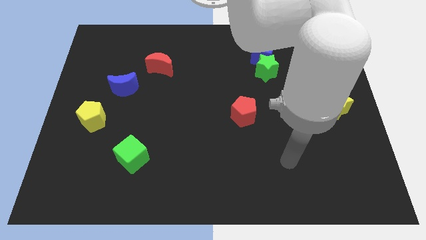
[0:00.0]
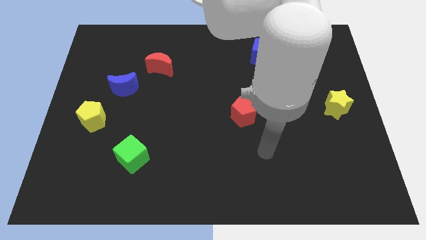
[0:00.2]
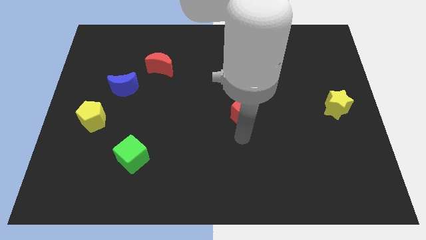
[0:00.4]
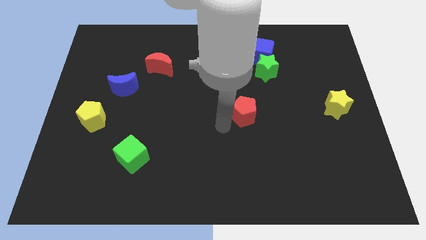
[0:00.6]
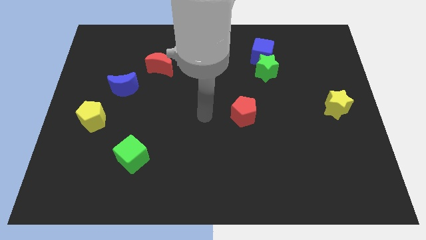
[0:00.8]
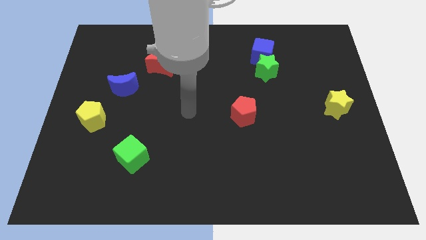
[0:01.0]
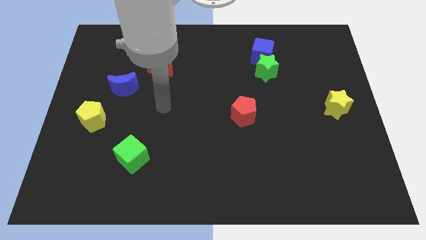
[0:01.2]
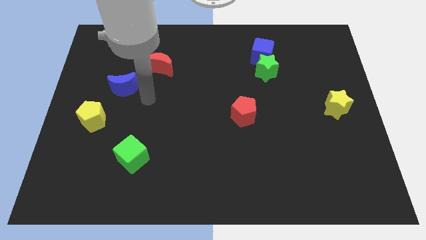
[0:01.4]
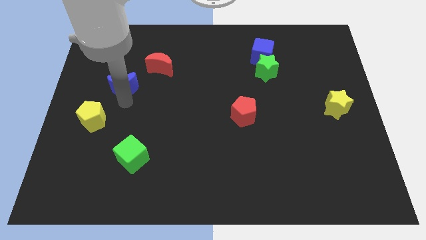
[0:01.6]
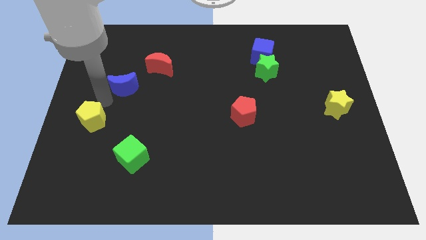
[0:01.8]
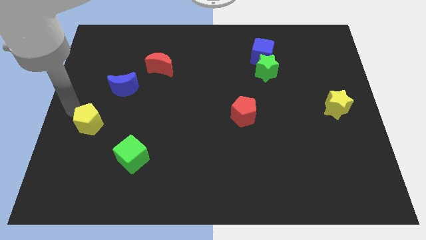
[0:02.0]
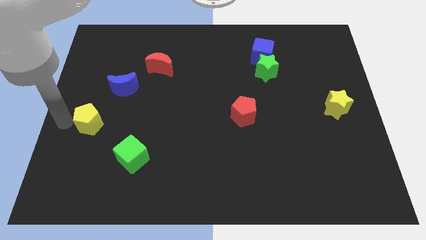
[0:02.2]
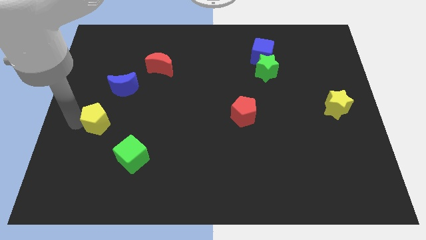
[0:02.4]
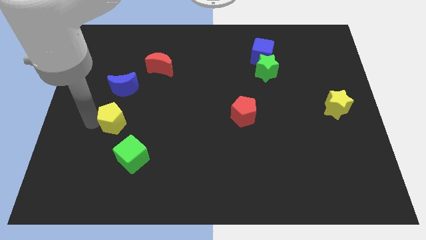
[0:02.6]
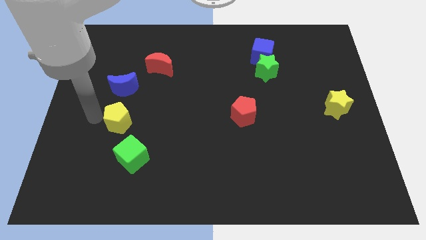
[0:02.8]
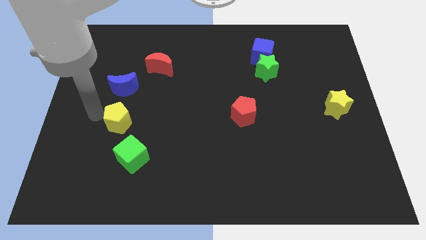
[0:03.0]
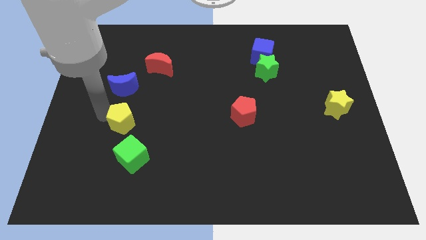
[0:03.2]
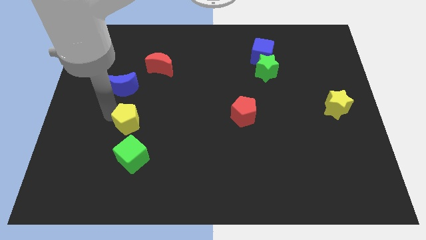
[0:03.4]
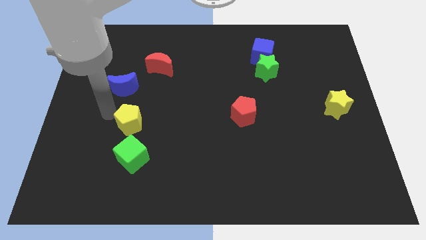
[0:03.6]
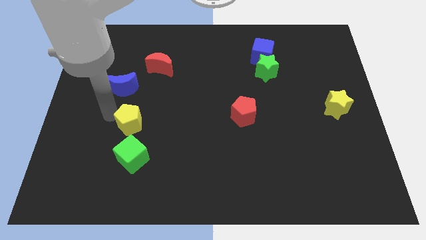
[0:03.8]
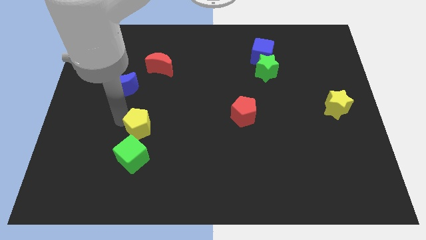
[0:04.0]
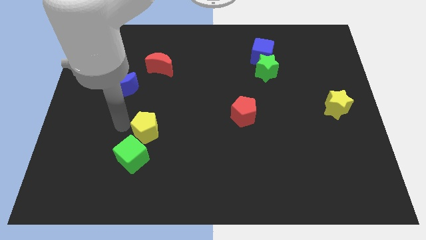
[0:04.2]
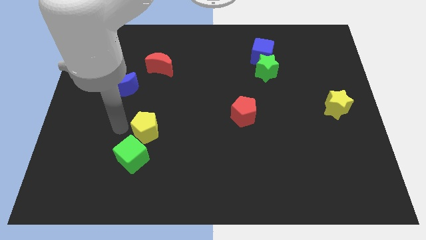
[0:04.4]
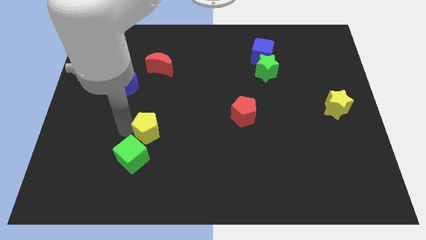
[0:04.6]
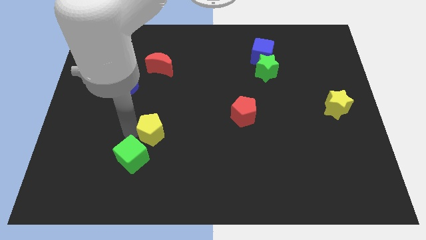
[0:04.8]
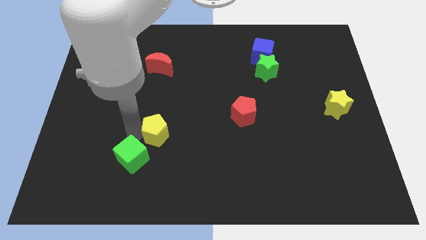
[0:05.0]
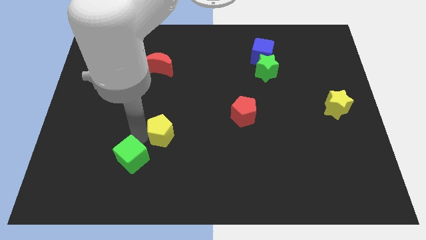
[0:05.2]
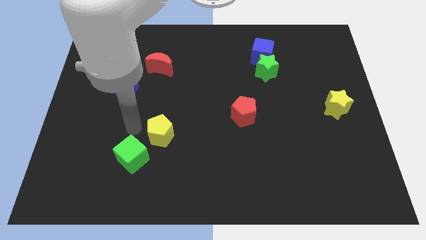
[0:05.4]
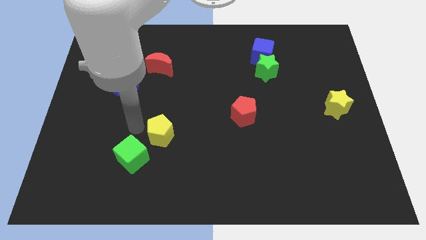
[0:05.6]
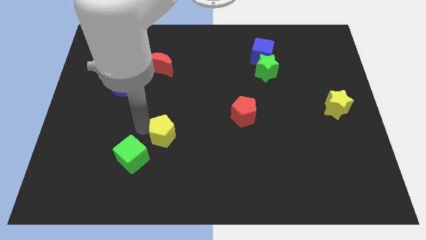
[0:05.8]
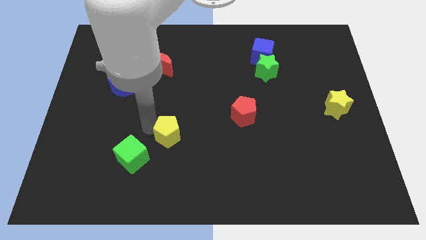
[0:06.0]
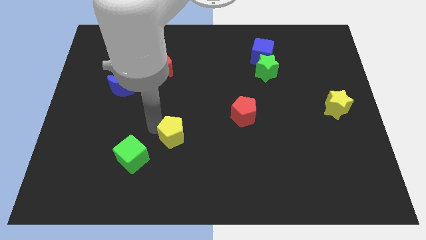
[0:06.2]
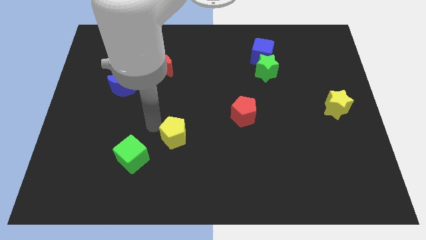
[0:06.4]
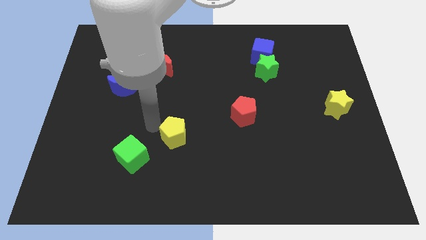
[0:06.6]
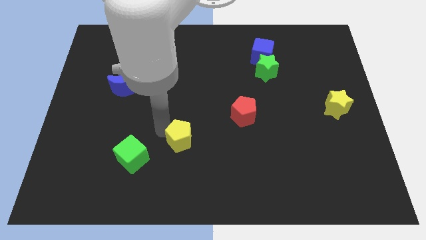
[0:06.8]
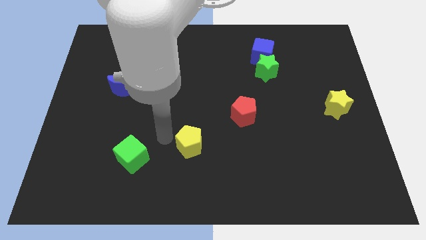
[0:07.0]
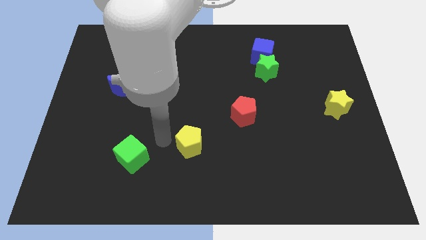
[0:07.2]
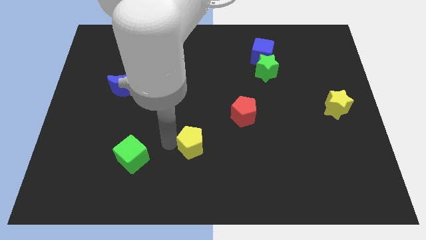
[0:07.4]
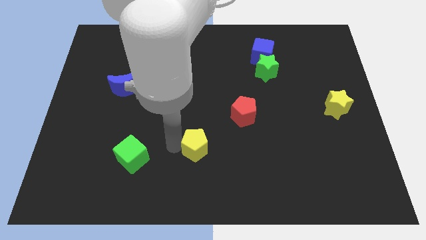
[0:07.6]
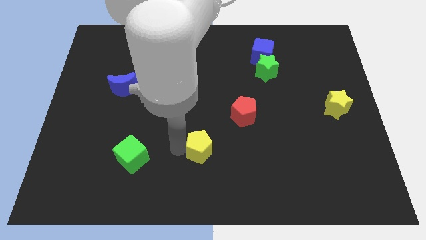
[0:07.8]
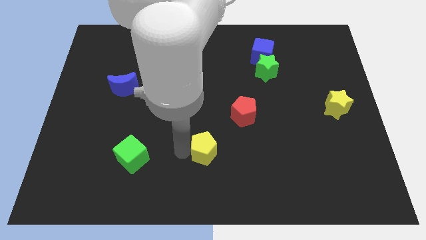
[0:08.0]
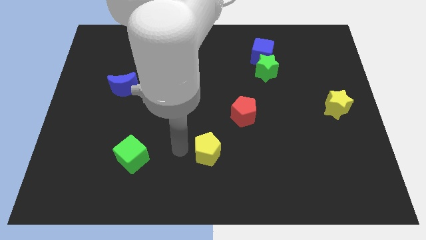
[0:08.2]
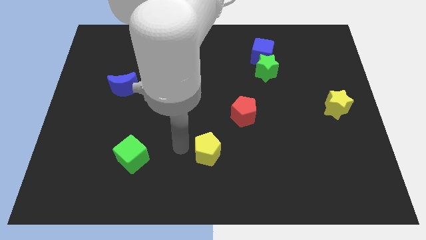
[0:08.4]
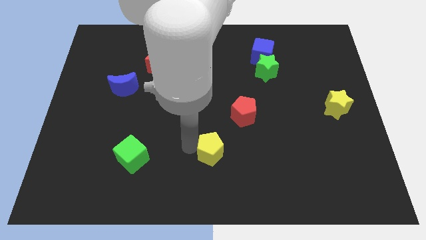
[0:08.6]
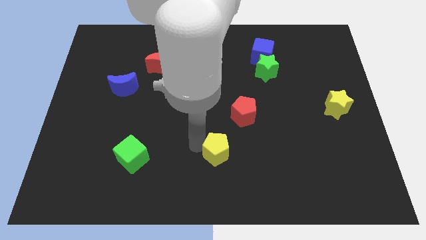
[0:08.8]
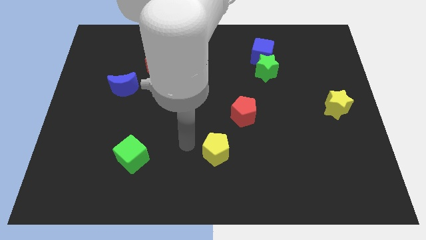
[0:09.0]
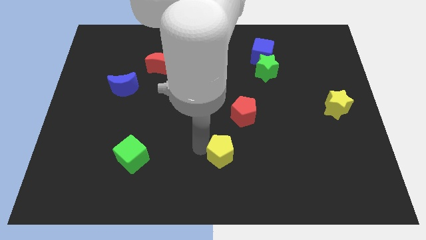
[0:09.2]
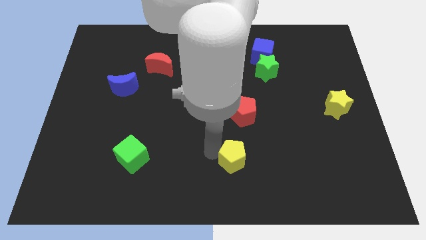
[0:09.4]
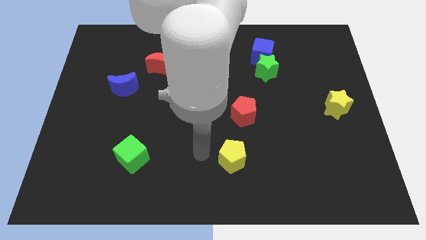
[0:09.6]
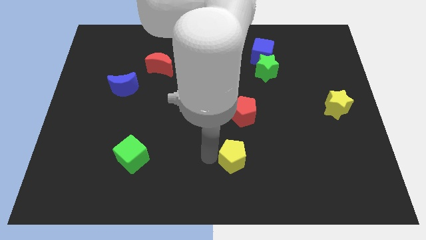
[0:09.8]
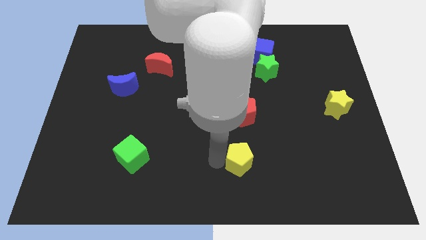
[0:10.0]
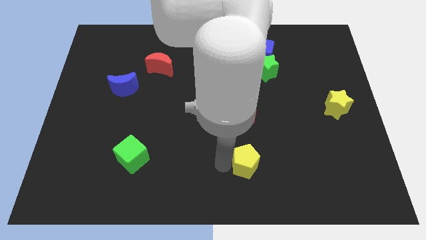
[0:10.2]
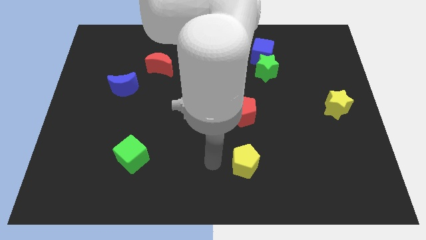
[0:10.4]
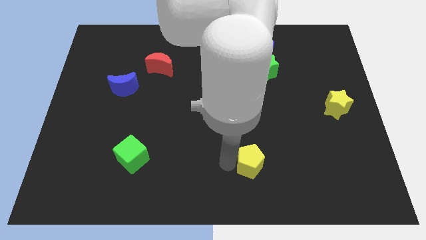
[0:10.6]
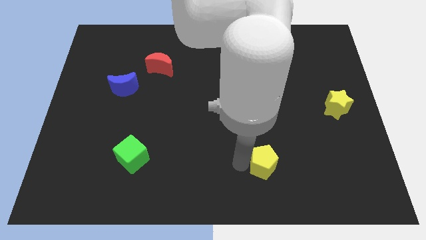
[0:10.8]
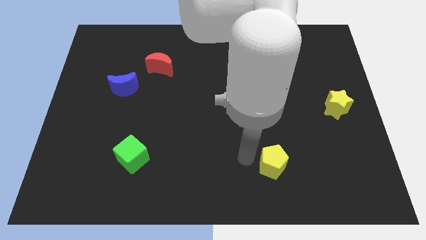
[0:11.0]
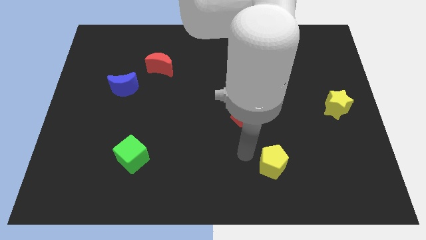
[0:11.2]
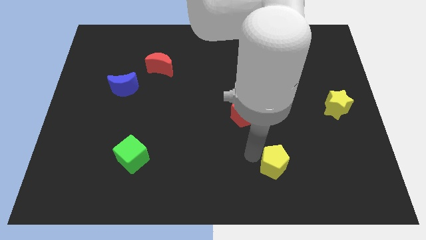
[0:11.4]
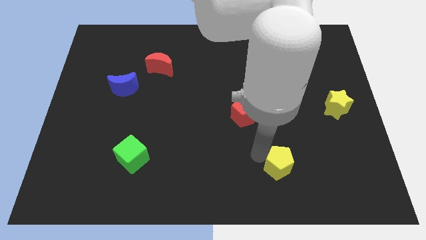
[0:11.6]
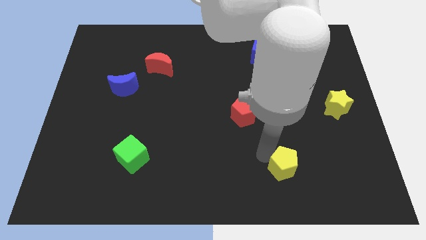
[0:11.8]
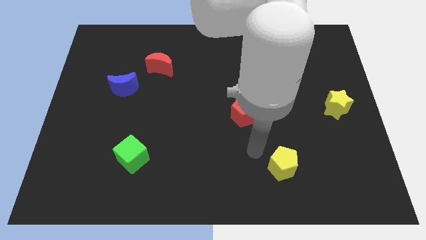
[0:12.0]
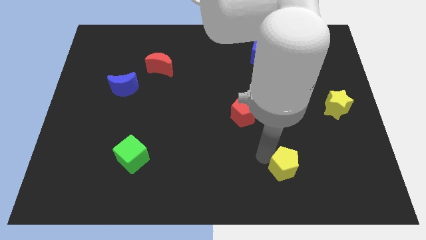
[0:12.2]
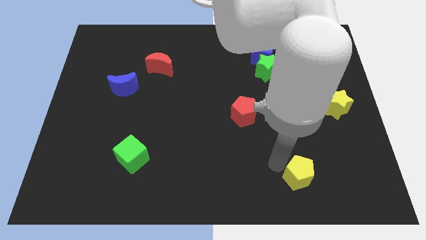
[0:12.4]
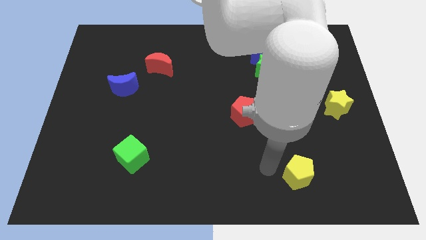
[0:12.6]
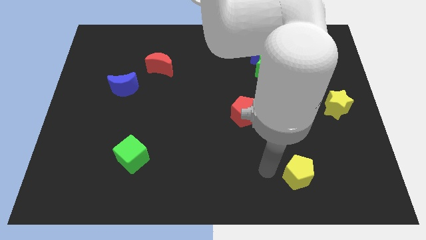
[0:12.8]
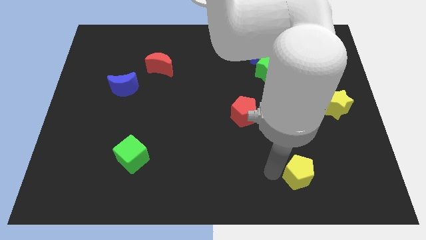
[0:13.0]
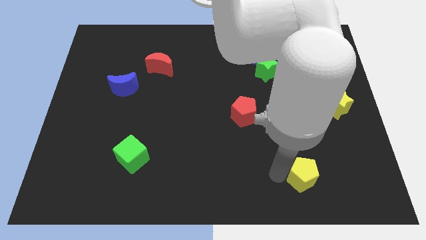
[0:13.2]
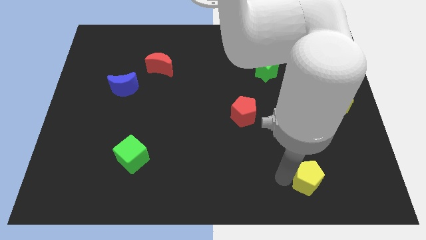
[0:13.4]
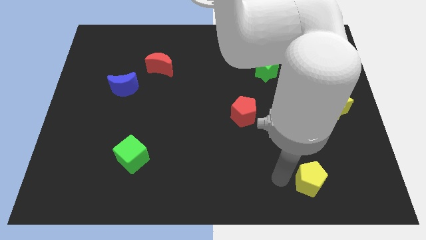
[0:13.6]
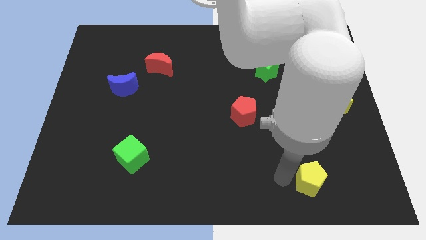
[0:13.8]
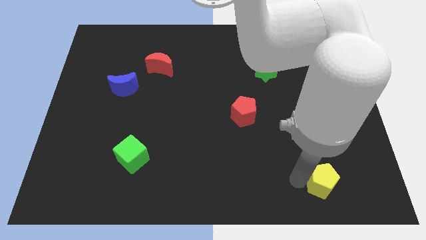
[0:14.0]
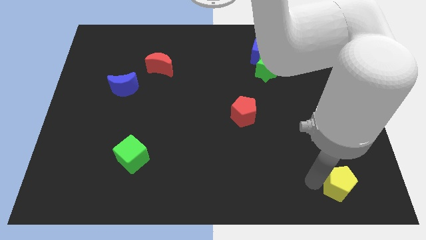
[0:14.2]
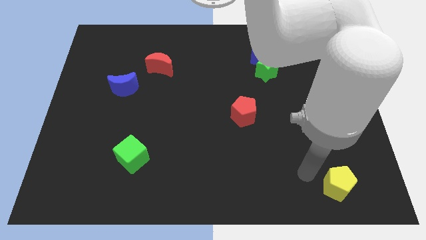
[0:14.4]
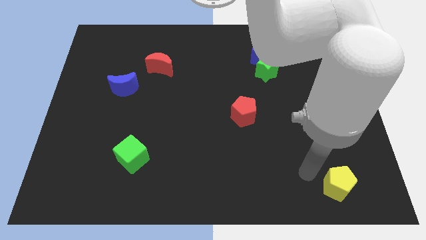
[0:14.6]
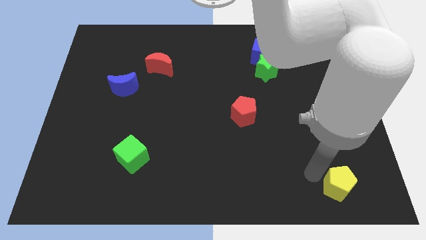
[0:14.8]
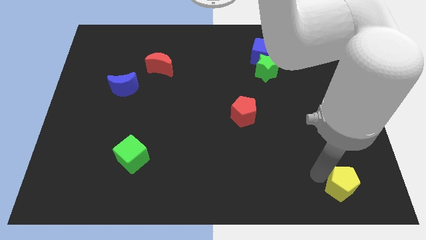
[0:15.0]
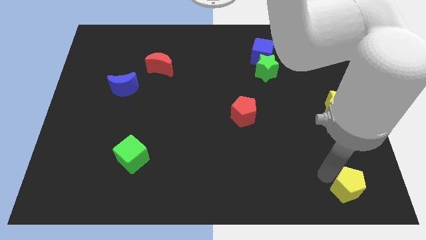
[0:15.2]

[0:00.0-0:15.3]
put the yellow pentagon to the bottom right corner
